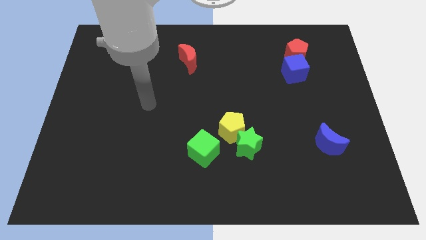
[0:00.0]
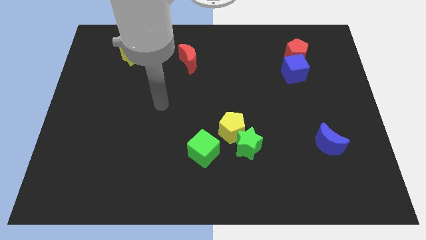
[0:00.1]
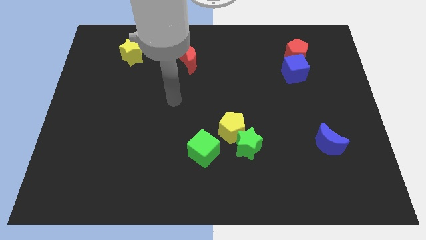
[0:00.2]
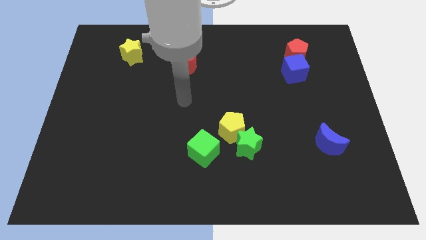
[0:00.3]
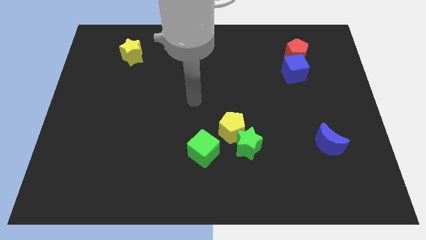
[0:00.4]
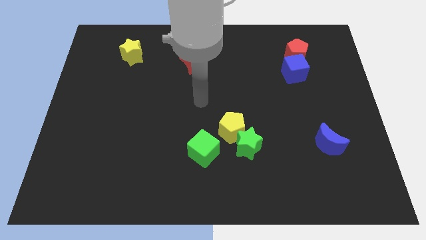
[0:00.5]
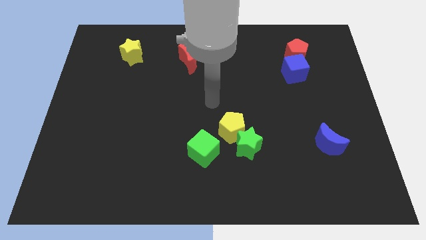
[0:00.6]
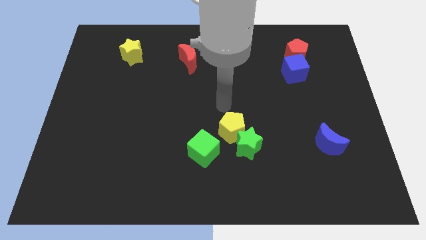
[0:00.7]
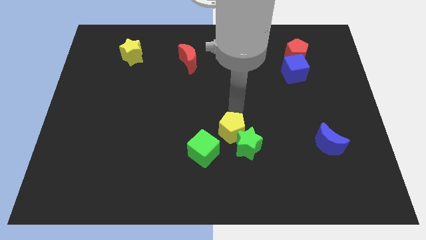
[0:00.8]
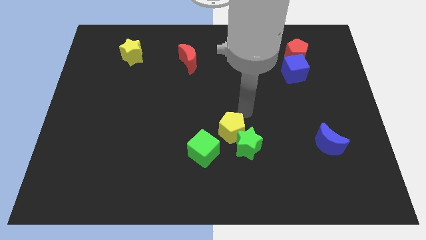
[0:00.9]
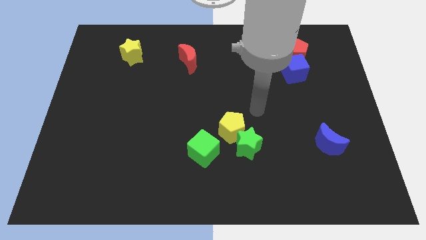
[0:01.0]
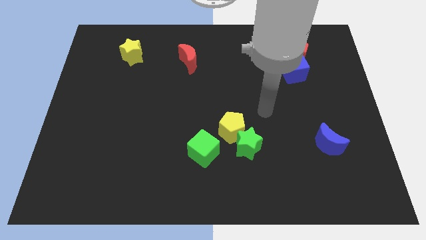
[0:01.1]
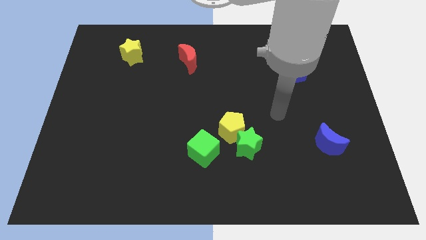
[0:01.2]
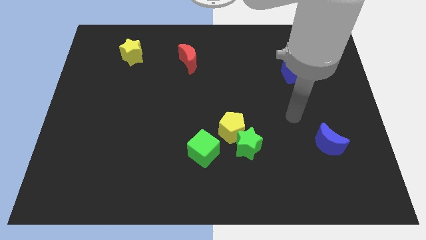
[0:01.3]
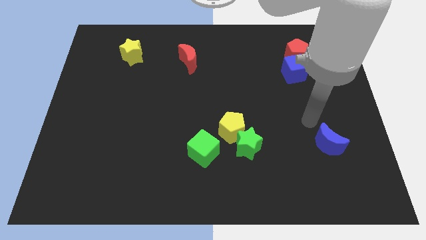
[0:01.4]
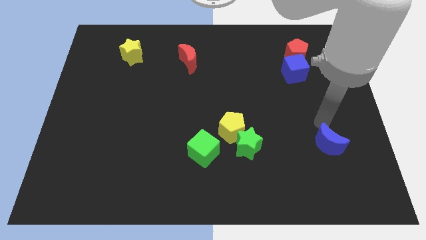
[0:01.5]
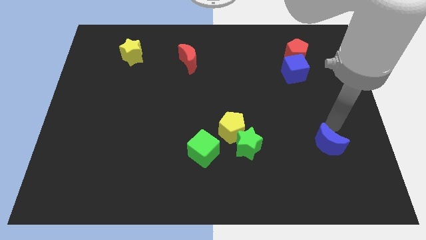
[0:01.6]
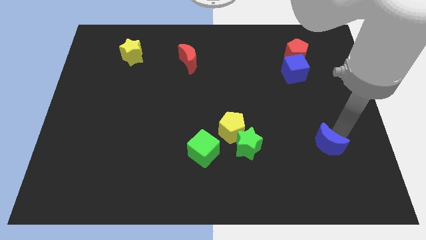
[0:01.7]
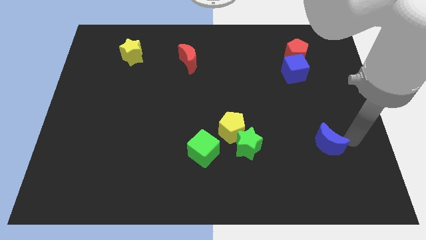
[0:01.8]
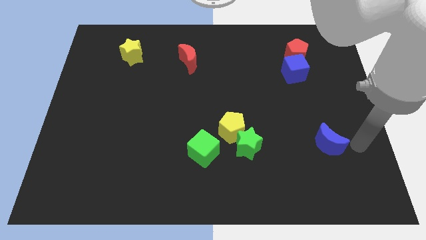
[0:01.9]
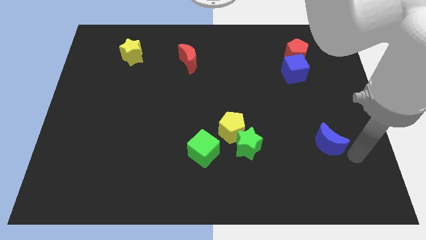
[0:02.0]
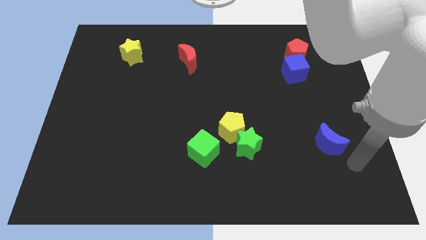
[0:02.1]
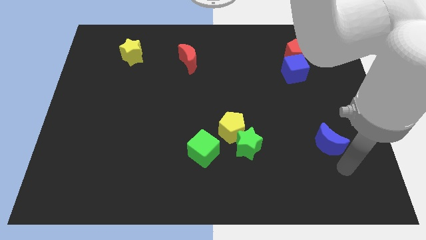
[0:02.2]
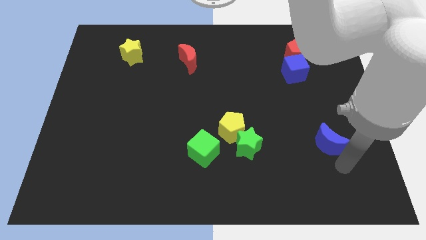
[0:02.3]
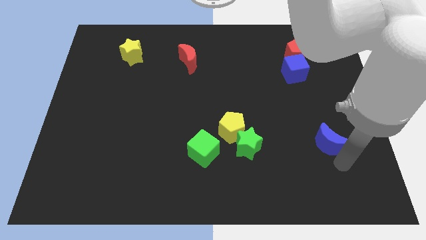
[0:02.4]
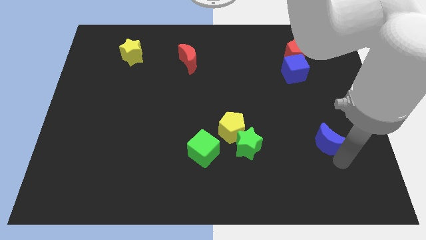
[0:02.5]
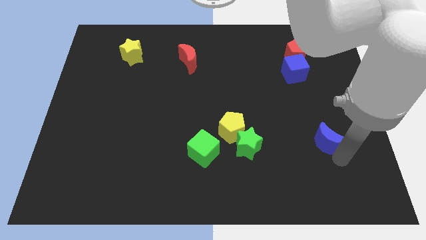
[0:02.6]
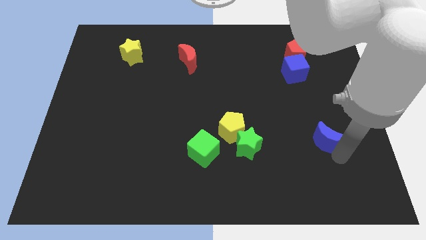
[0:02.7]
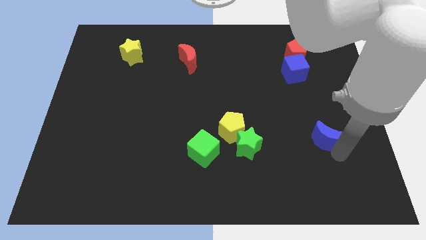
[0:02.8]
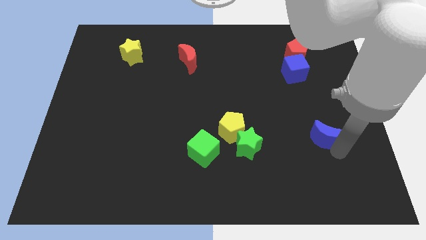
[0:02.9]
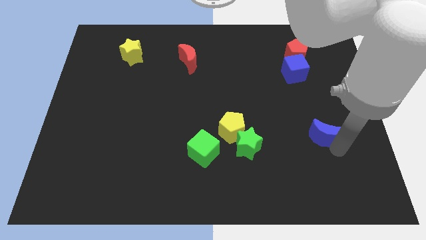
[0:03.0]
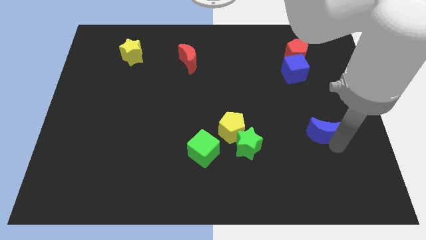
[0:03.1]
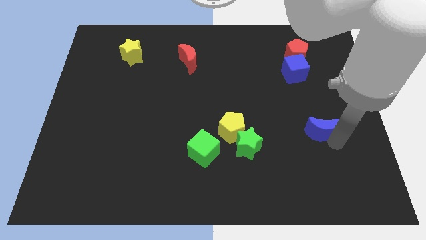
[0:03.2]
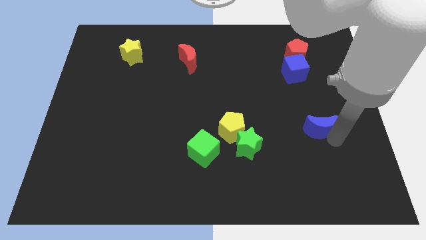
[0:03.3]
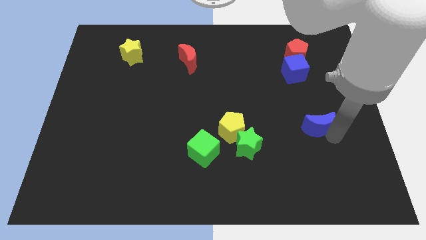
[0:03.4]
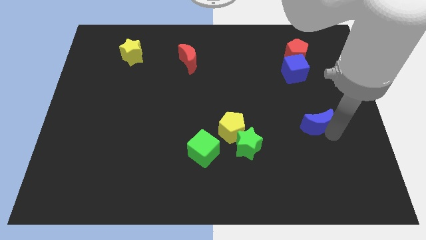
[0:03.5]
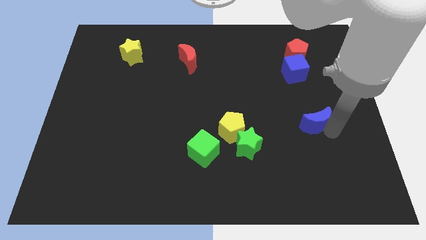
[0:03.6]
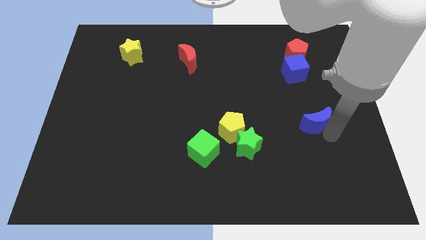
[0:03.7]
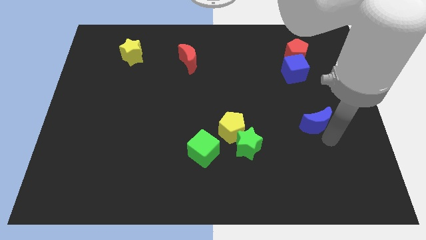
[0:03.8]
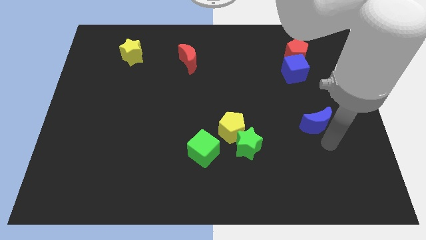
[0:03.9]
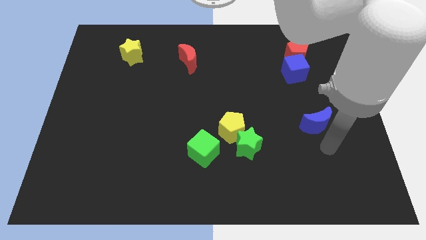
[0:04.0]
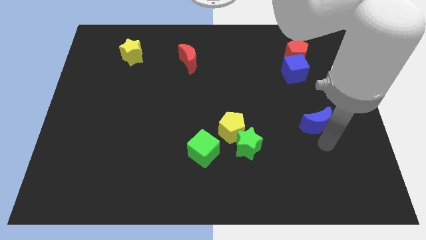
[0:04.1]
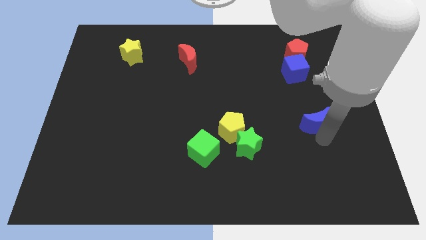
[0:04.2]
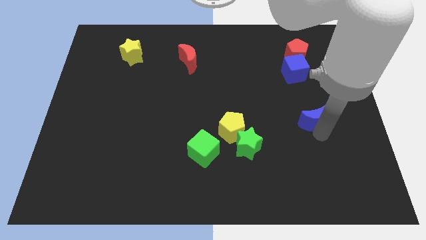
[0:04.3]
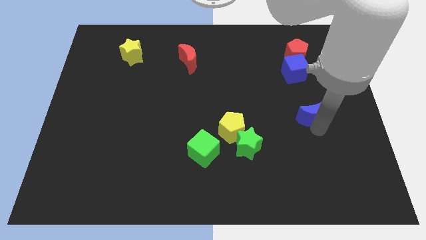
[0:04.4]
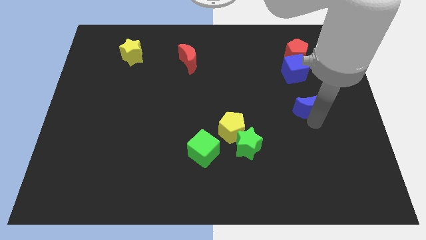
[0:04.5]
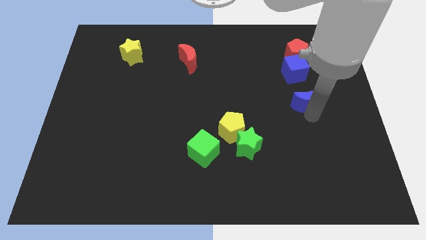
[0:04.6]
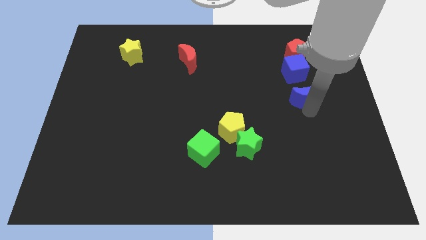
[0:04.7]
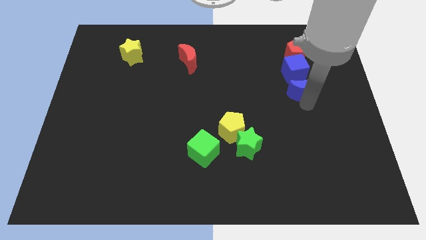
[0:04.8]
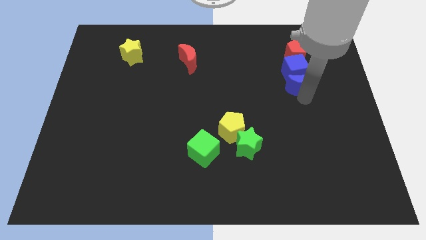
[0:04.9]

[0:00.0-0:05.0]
push the blue moon close to the blue cube

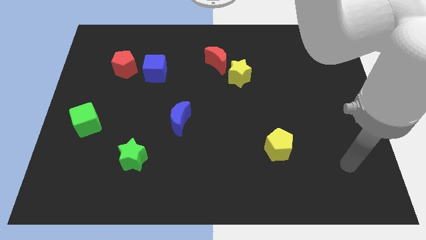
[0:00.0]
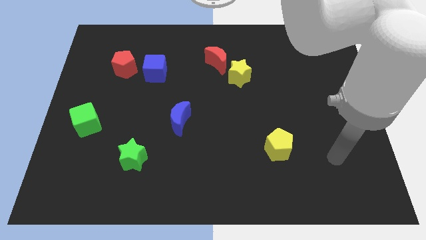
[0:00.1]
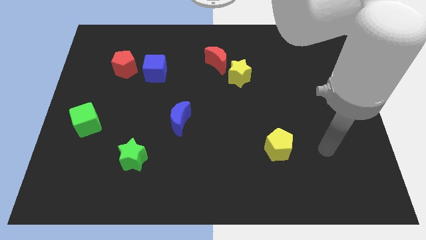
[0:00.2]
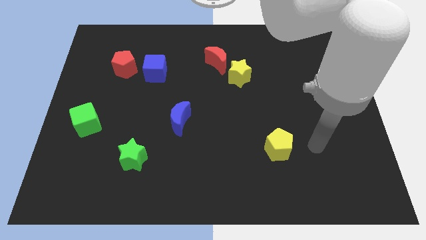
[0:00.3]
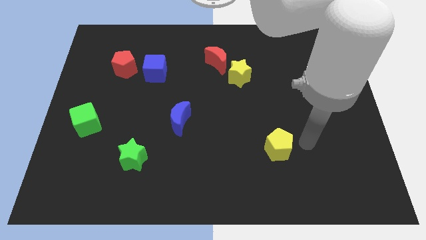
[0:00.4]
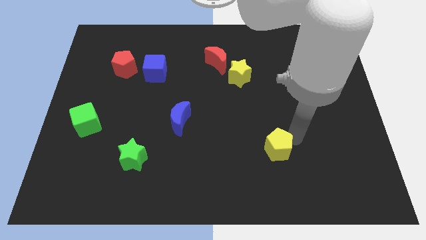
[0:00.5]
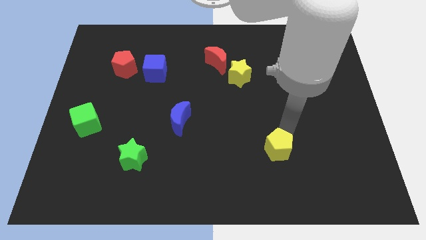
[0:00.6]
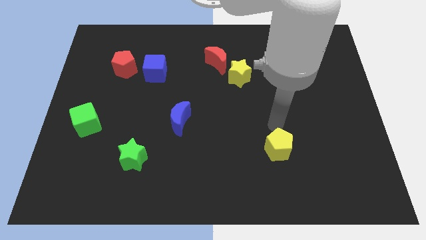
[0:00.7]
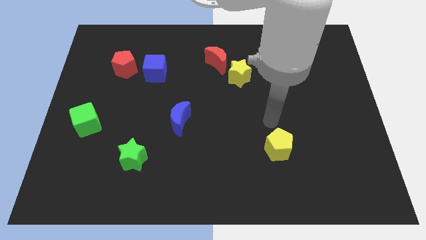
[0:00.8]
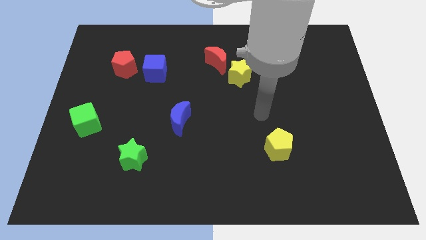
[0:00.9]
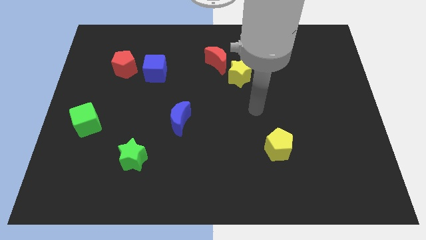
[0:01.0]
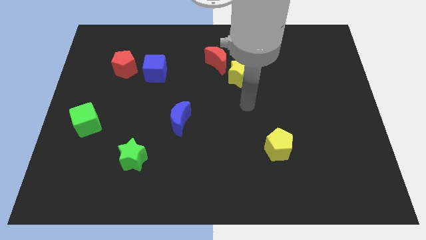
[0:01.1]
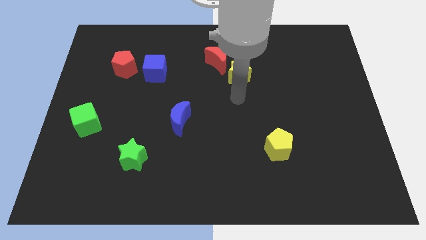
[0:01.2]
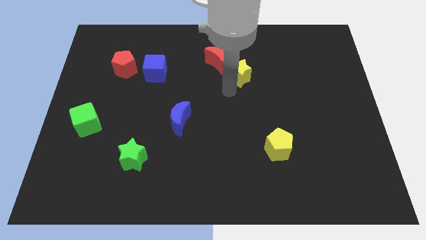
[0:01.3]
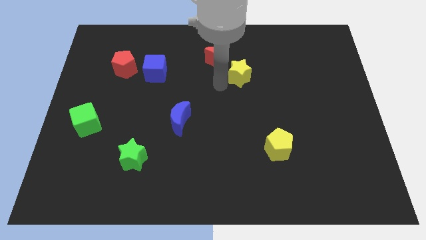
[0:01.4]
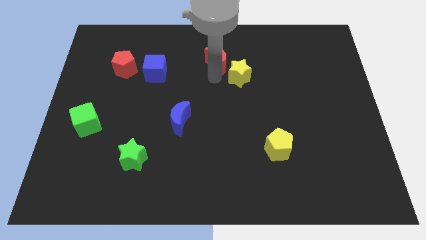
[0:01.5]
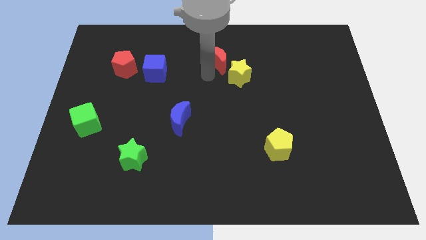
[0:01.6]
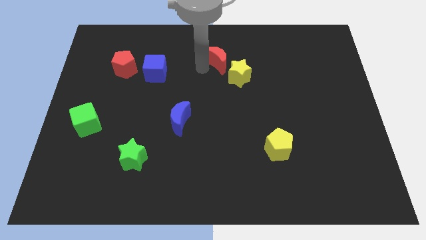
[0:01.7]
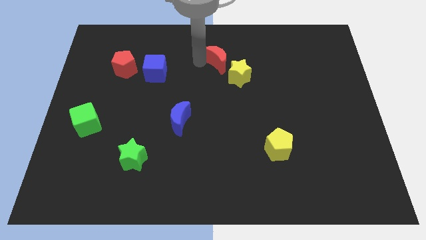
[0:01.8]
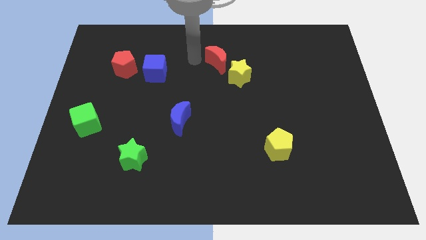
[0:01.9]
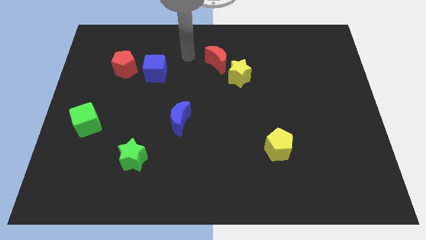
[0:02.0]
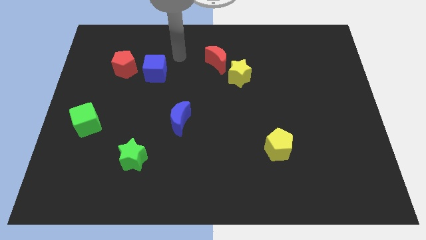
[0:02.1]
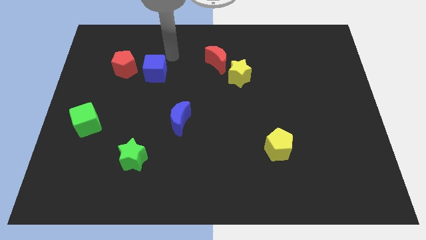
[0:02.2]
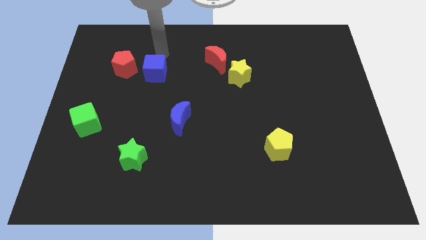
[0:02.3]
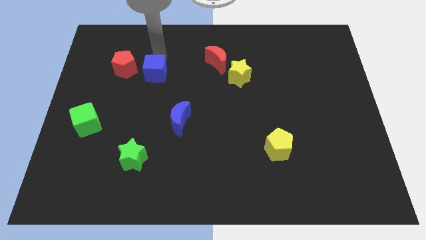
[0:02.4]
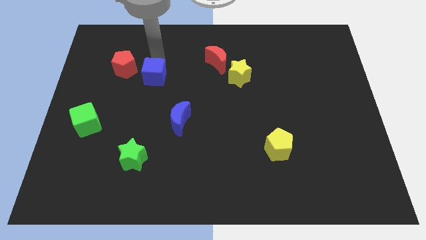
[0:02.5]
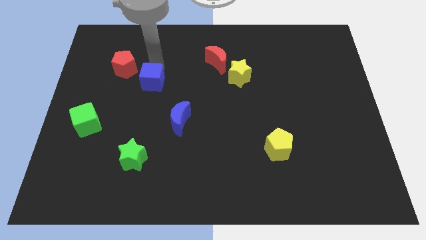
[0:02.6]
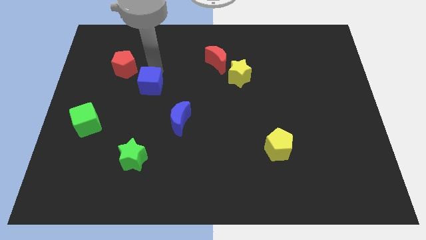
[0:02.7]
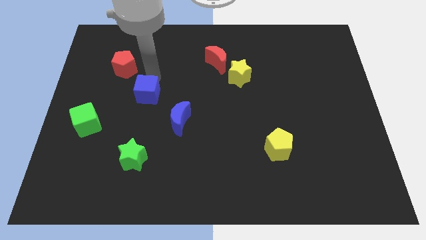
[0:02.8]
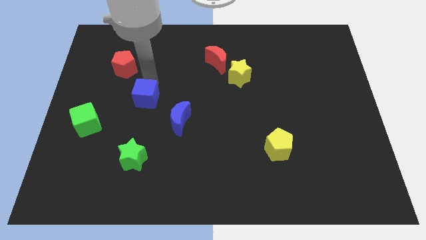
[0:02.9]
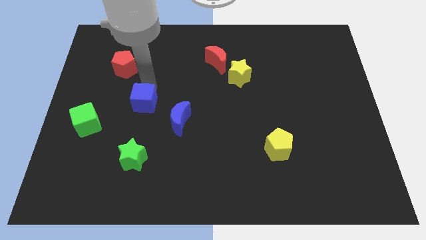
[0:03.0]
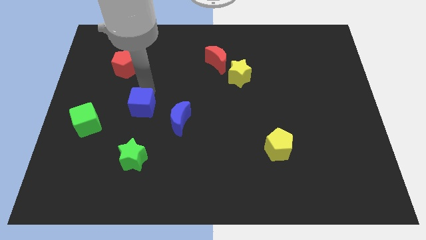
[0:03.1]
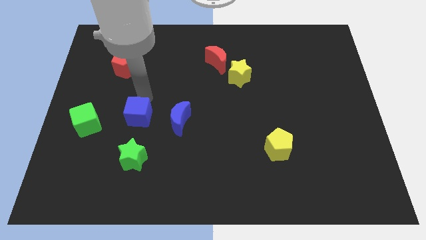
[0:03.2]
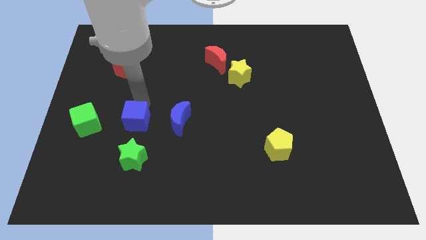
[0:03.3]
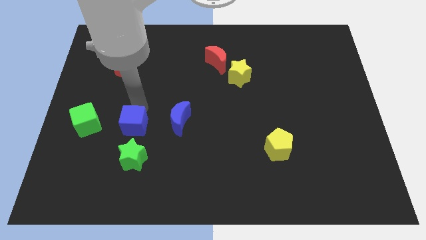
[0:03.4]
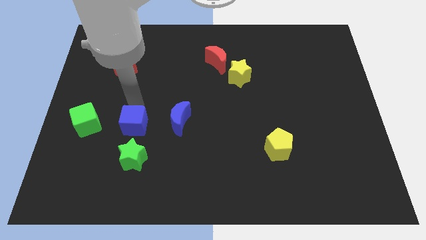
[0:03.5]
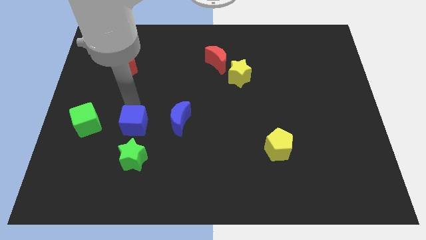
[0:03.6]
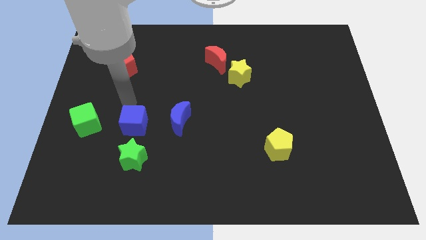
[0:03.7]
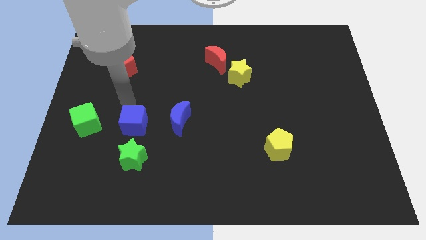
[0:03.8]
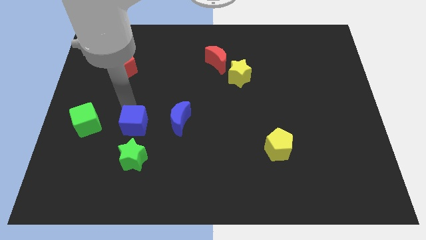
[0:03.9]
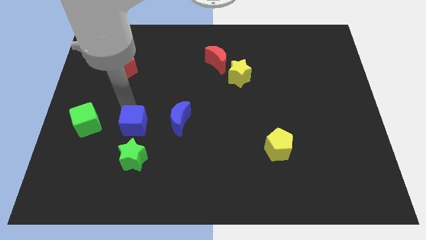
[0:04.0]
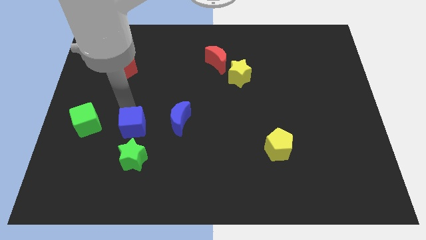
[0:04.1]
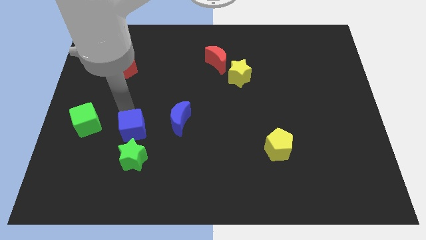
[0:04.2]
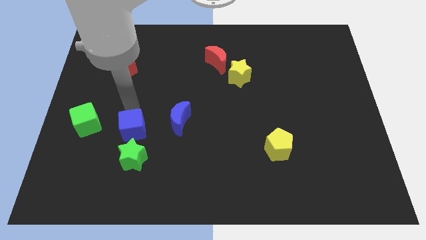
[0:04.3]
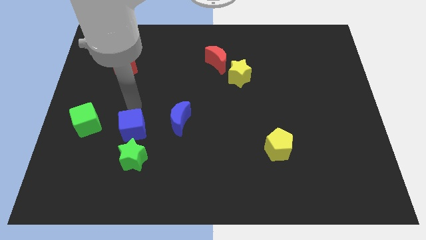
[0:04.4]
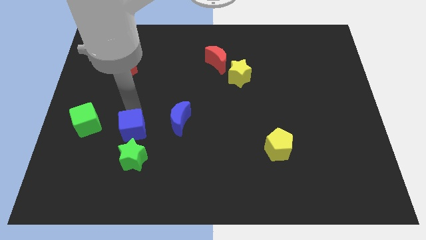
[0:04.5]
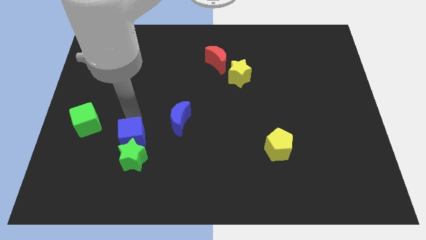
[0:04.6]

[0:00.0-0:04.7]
slide the blue cube to the green star
